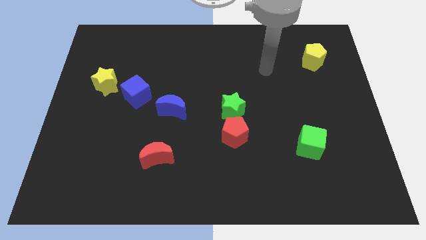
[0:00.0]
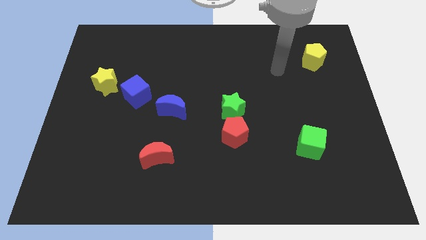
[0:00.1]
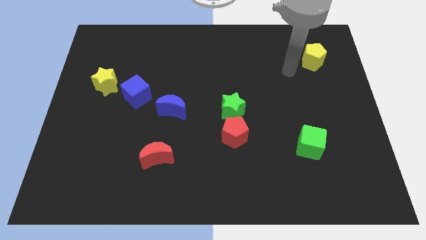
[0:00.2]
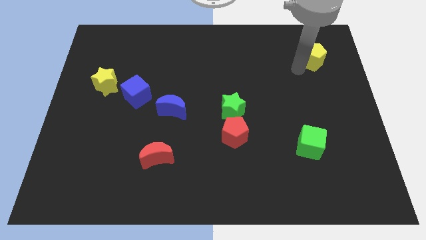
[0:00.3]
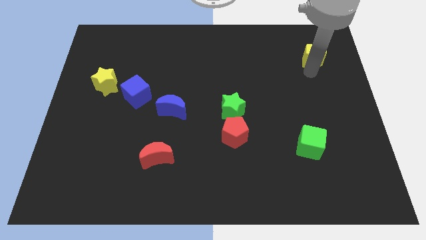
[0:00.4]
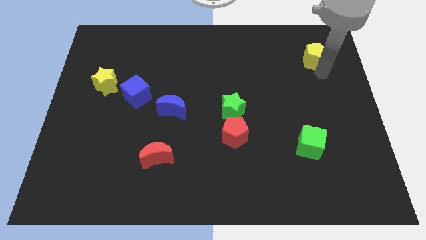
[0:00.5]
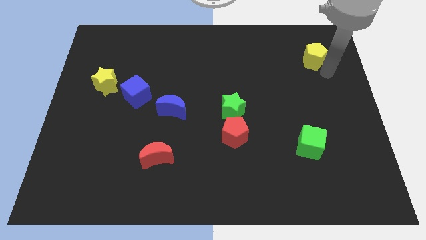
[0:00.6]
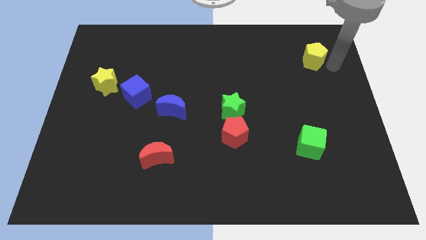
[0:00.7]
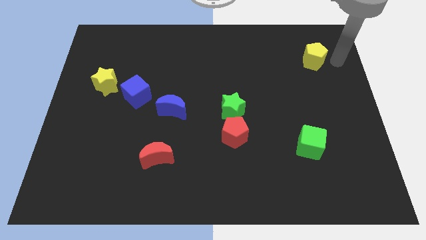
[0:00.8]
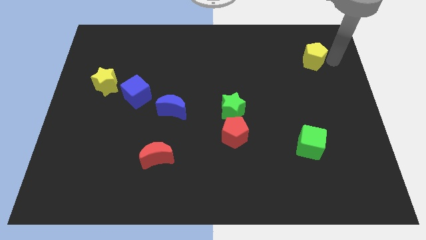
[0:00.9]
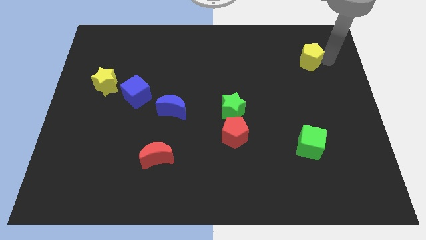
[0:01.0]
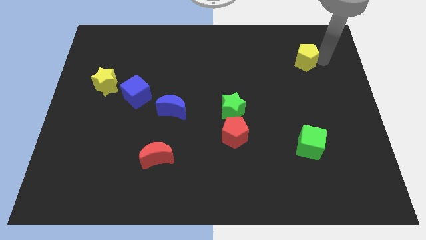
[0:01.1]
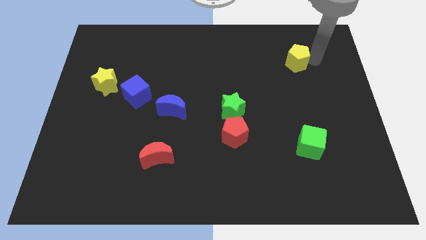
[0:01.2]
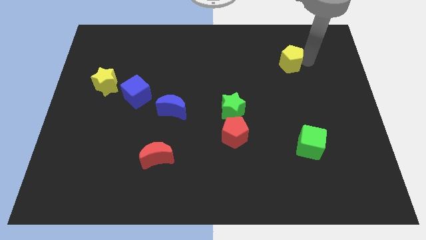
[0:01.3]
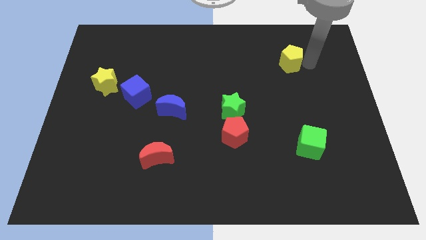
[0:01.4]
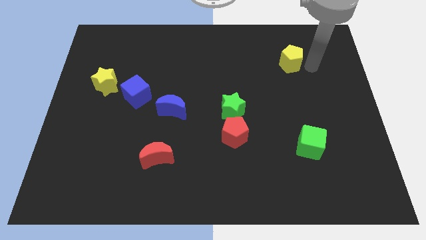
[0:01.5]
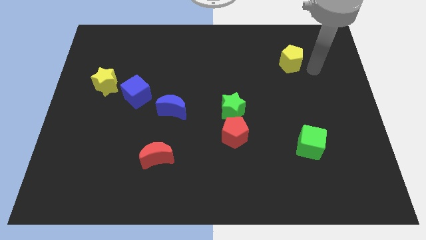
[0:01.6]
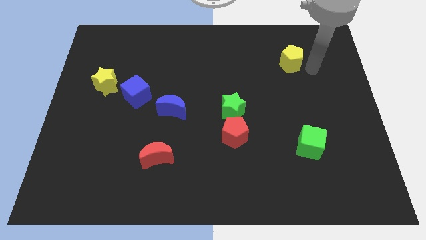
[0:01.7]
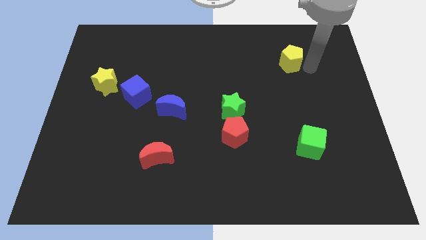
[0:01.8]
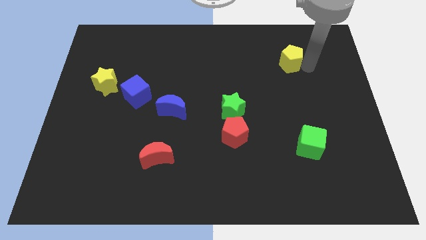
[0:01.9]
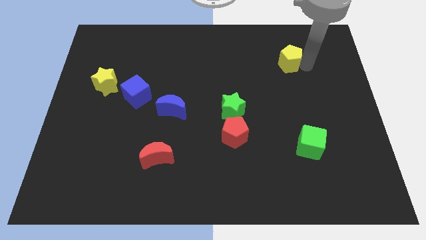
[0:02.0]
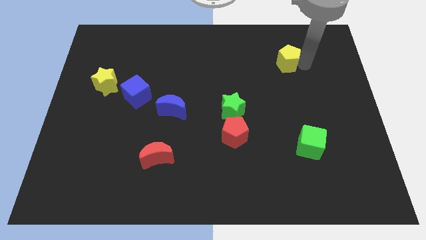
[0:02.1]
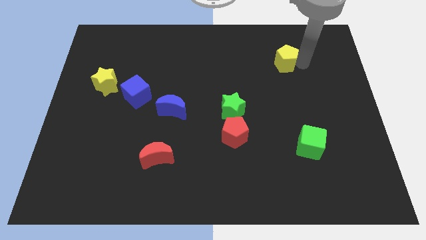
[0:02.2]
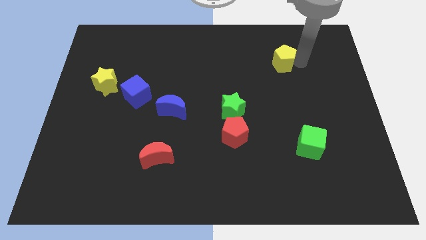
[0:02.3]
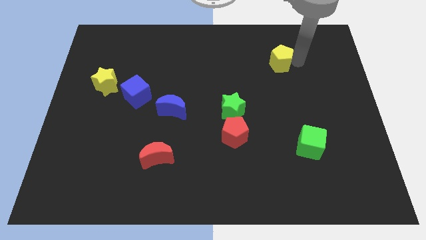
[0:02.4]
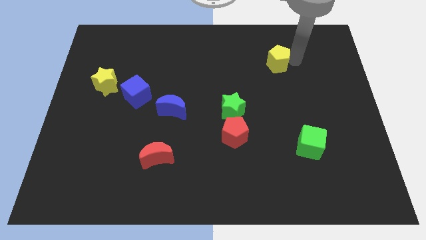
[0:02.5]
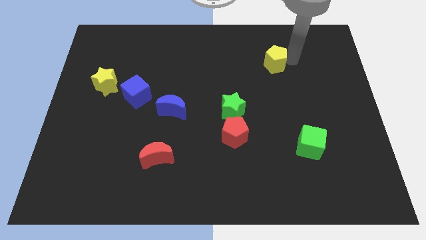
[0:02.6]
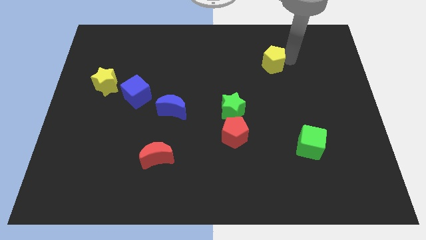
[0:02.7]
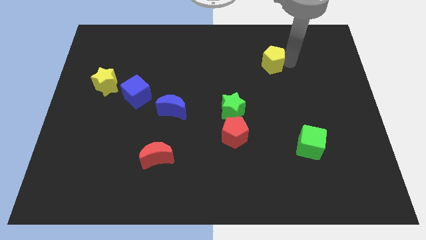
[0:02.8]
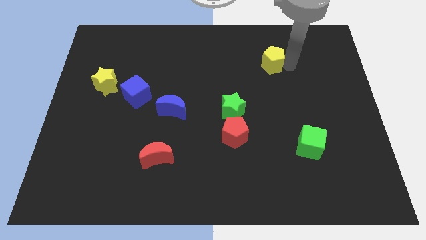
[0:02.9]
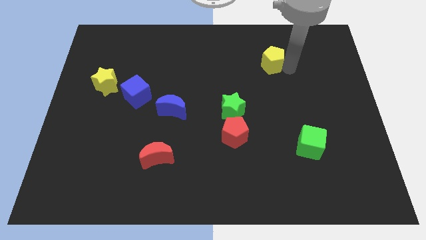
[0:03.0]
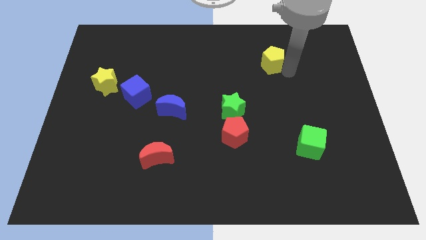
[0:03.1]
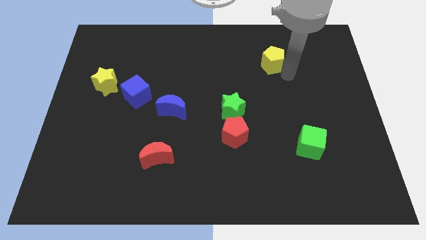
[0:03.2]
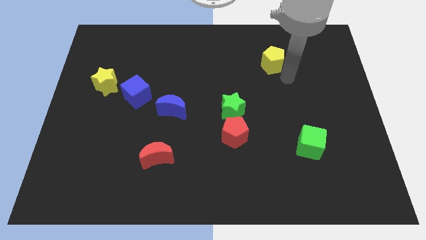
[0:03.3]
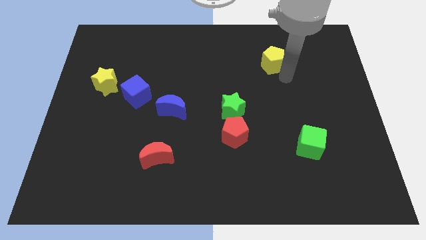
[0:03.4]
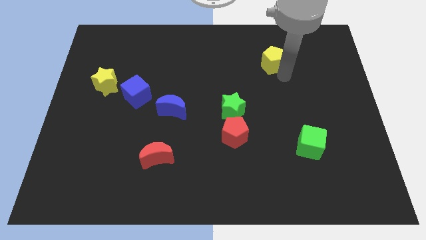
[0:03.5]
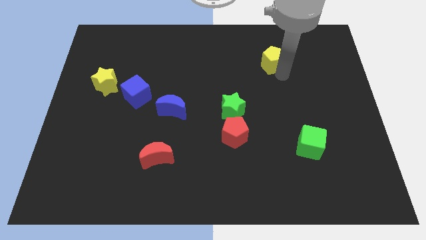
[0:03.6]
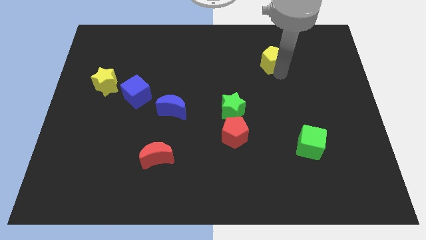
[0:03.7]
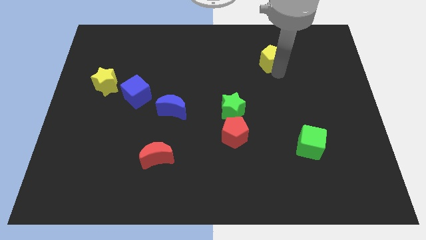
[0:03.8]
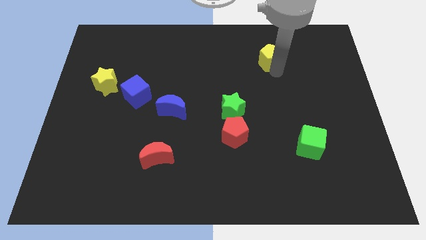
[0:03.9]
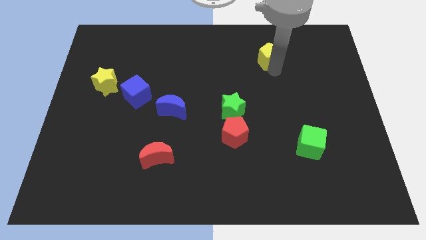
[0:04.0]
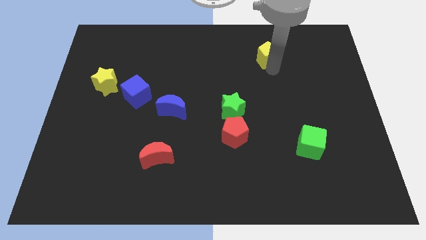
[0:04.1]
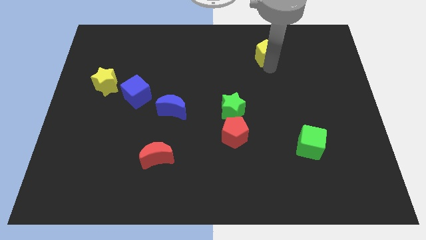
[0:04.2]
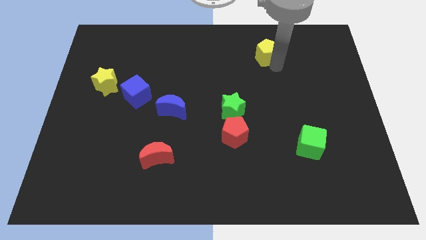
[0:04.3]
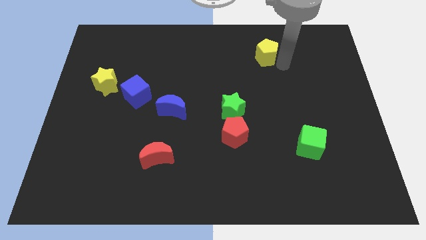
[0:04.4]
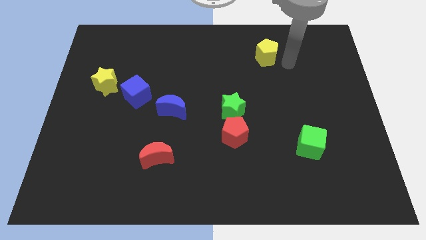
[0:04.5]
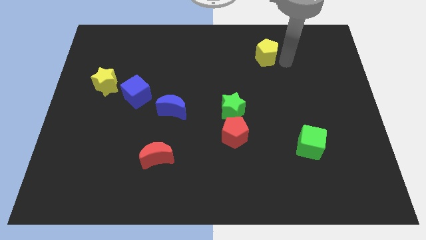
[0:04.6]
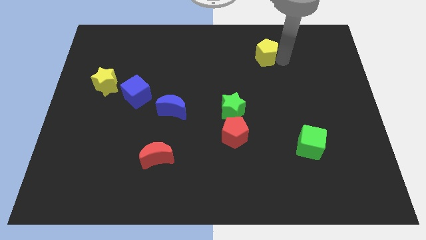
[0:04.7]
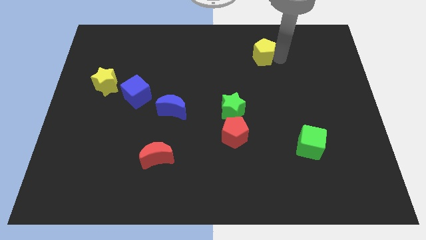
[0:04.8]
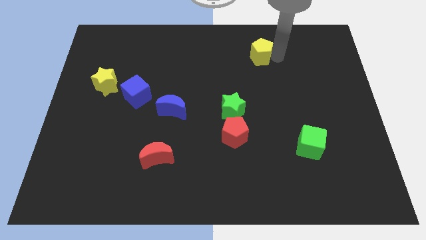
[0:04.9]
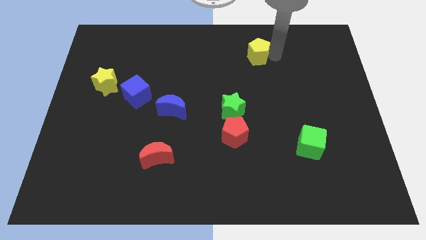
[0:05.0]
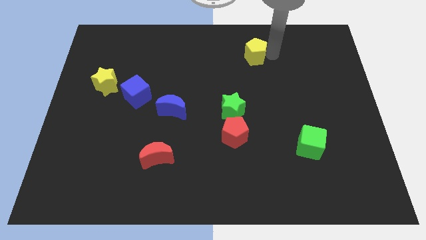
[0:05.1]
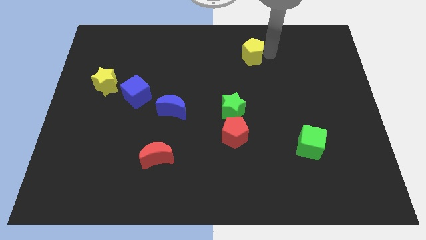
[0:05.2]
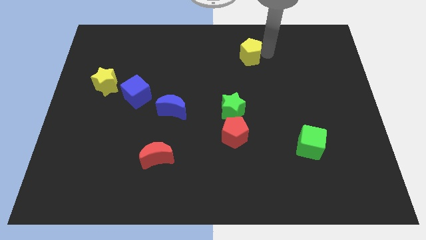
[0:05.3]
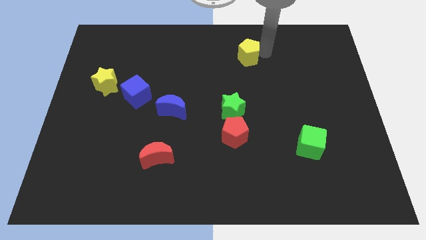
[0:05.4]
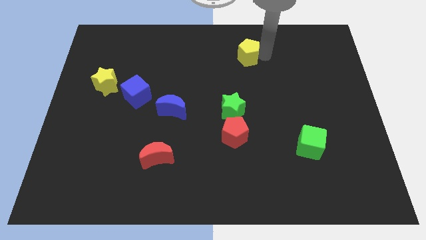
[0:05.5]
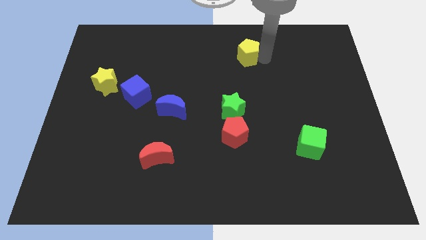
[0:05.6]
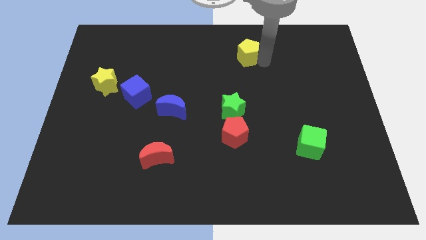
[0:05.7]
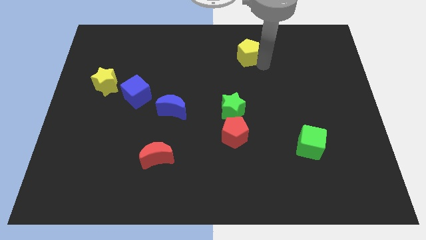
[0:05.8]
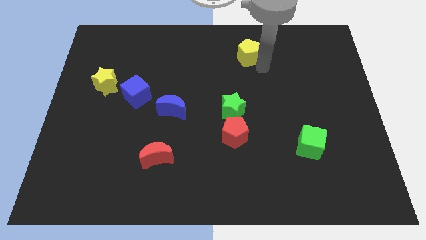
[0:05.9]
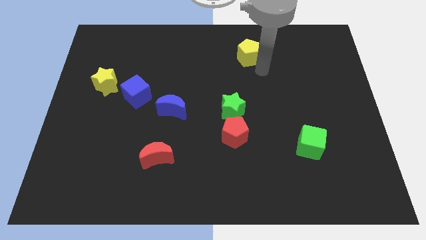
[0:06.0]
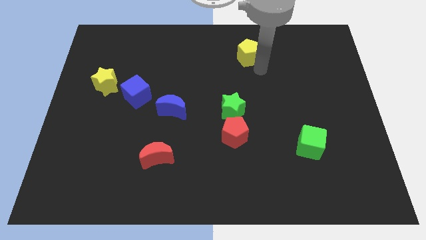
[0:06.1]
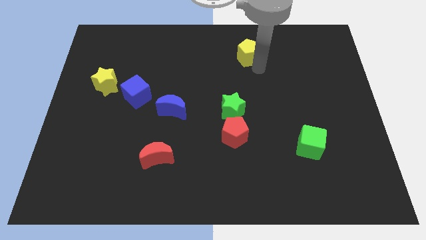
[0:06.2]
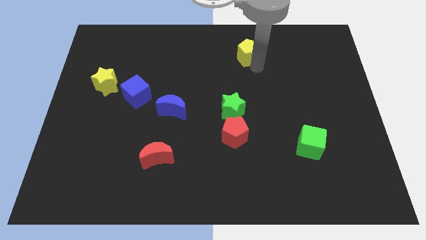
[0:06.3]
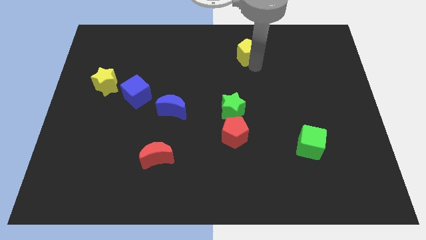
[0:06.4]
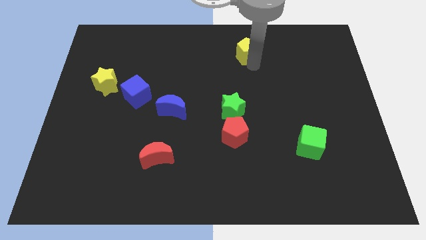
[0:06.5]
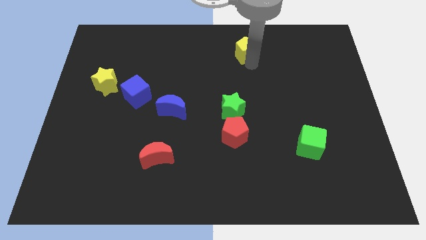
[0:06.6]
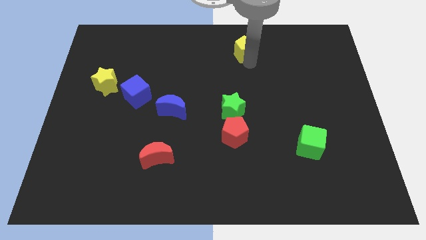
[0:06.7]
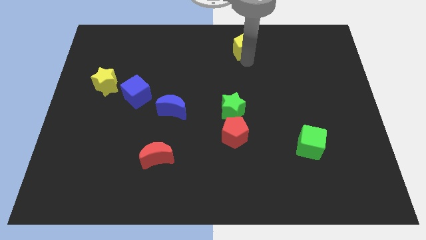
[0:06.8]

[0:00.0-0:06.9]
put the yellow pentagon to the top side

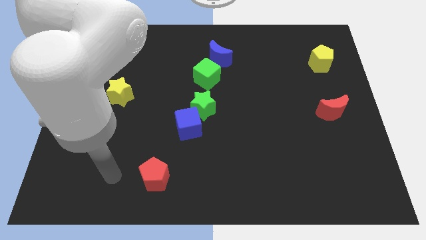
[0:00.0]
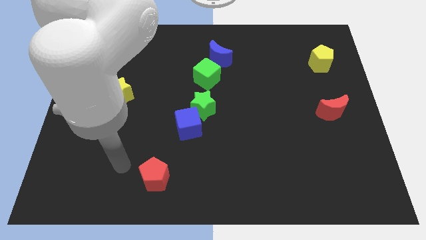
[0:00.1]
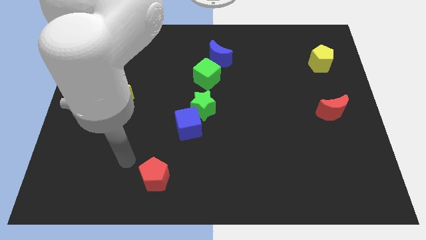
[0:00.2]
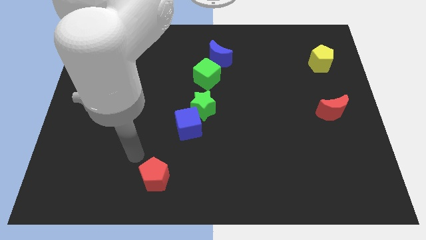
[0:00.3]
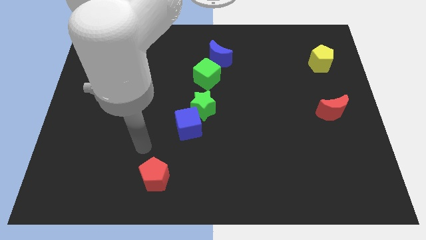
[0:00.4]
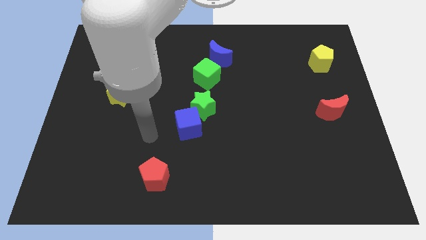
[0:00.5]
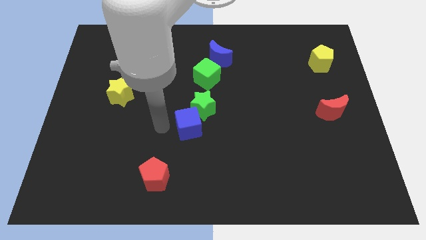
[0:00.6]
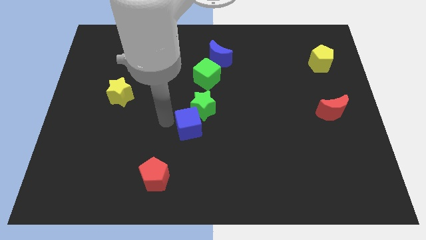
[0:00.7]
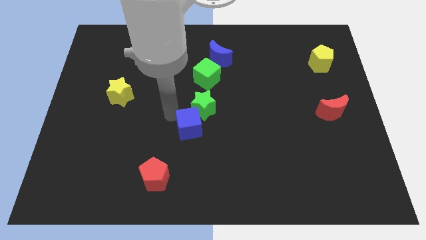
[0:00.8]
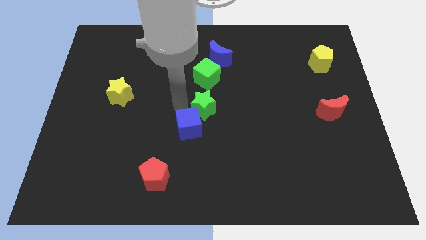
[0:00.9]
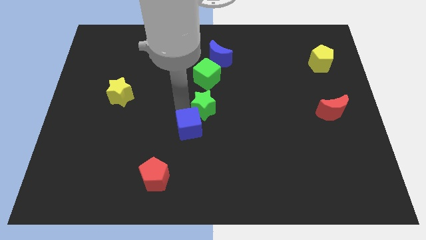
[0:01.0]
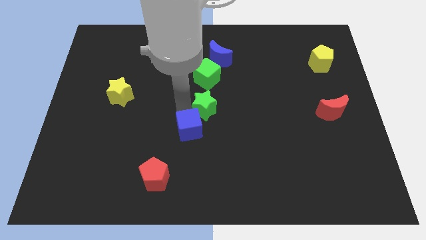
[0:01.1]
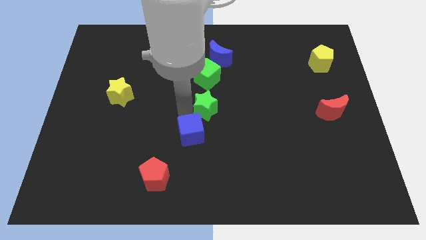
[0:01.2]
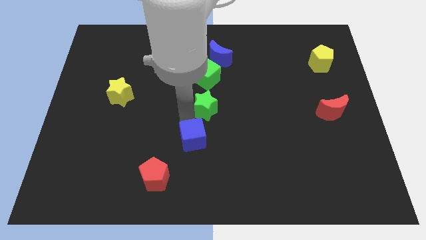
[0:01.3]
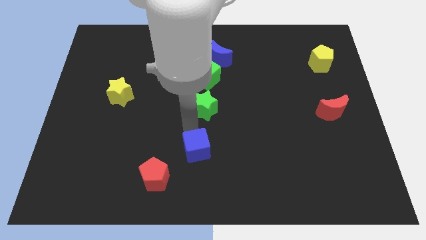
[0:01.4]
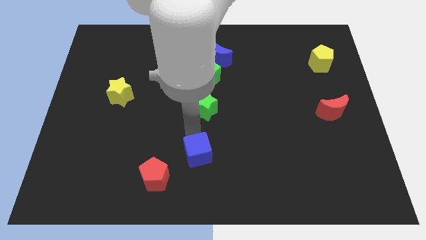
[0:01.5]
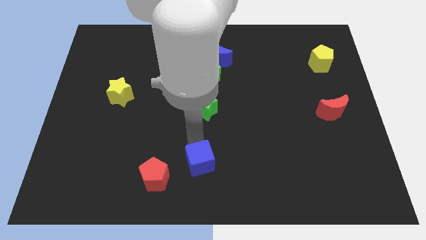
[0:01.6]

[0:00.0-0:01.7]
push the blue cube to the bottom side
